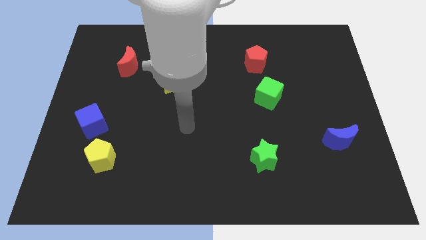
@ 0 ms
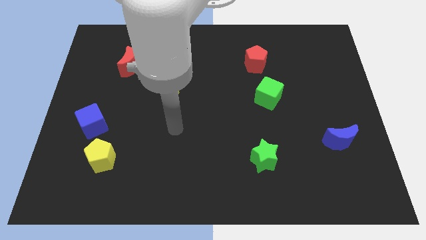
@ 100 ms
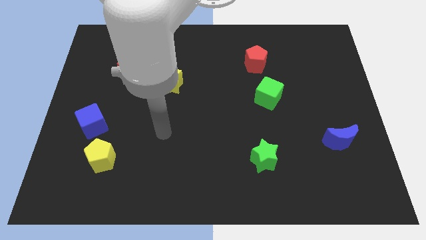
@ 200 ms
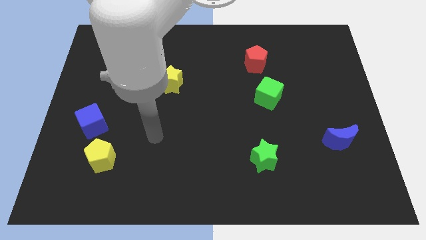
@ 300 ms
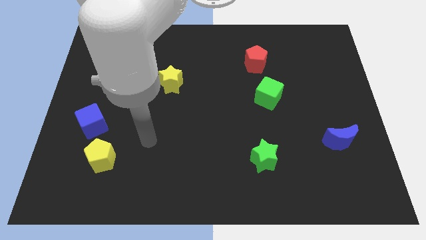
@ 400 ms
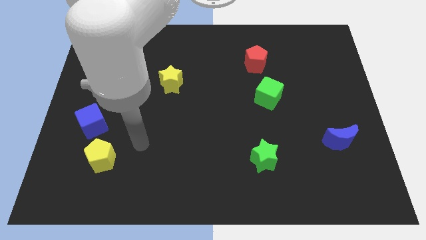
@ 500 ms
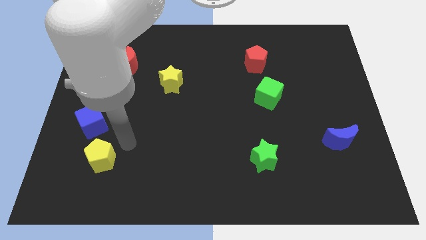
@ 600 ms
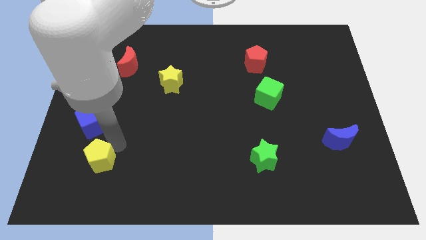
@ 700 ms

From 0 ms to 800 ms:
separate the blue cube from the yellow pentagon

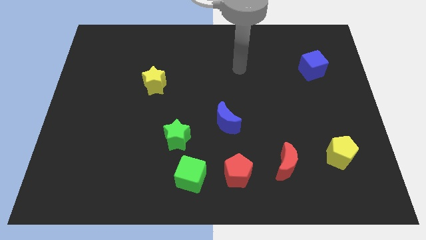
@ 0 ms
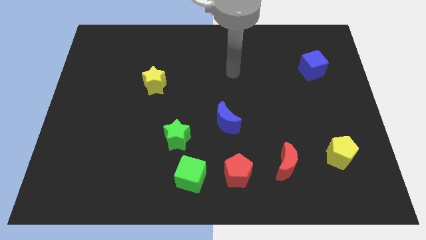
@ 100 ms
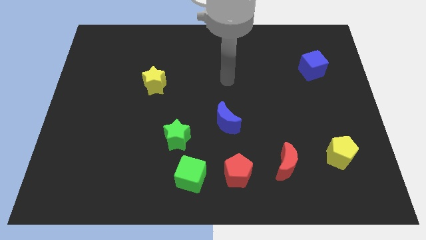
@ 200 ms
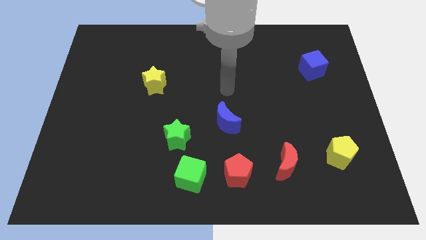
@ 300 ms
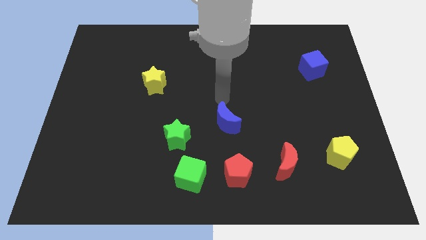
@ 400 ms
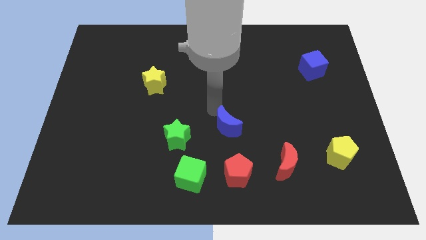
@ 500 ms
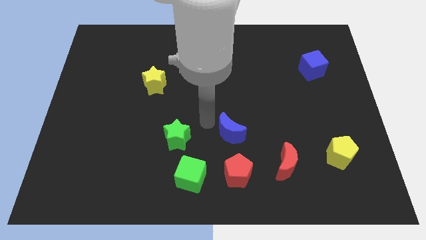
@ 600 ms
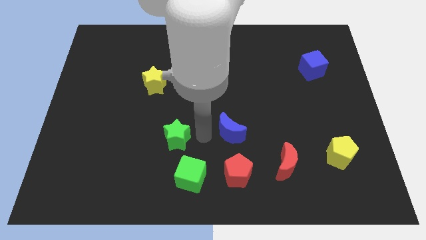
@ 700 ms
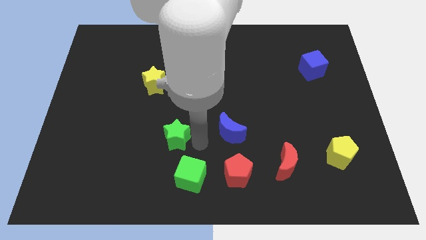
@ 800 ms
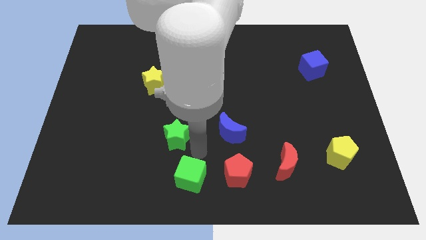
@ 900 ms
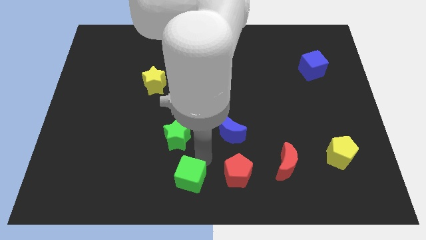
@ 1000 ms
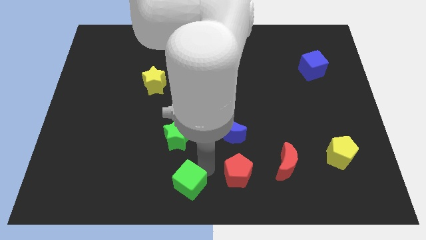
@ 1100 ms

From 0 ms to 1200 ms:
separate the red pentagon from the green cube

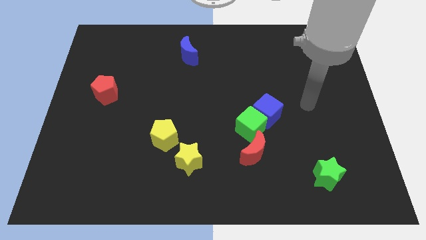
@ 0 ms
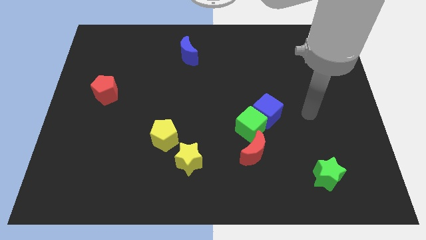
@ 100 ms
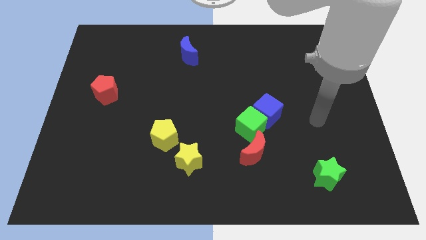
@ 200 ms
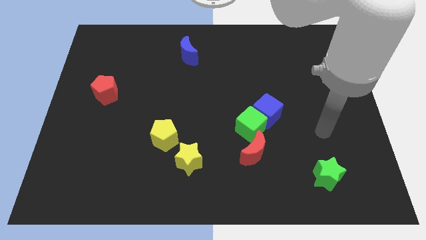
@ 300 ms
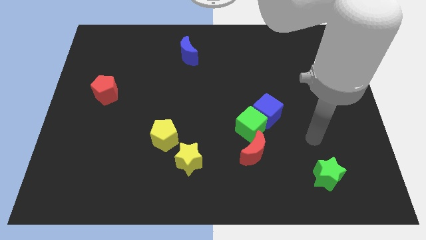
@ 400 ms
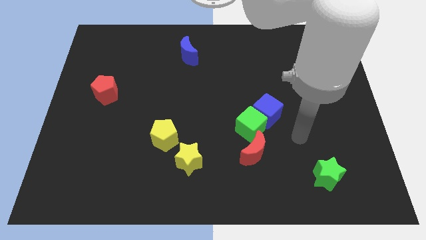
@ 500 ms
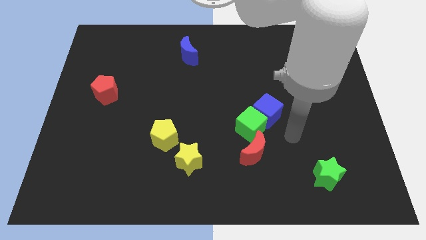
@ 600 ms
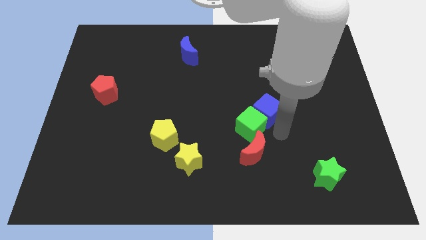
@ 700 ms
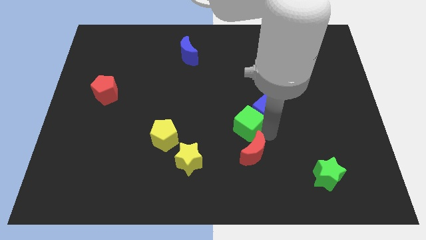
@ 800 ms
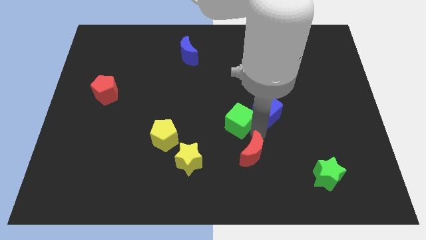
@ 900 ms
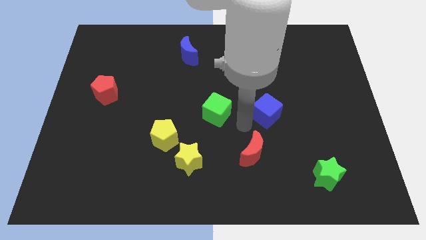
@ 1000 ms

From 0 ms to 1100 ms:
move the blue cube away from the green cube

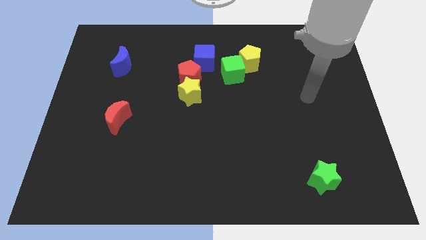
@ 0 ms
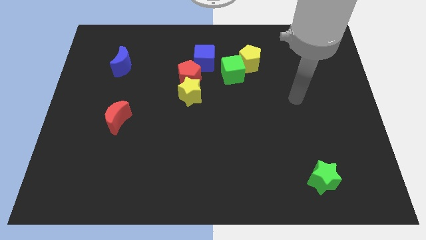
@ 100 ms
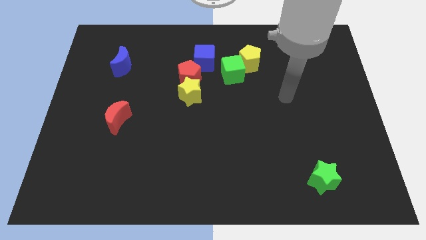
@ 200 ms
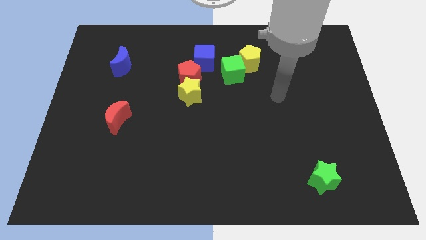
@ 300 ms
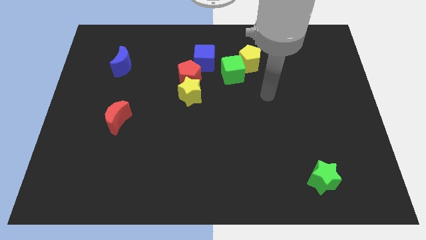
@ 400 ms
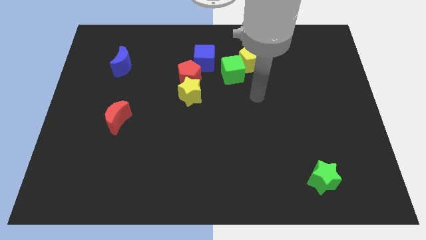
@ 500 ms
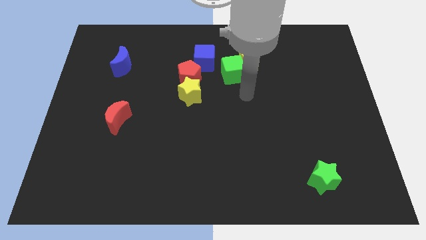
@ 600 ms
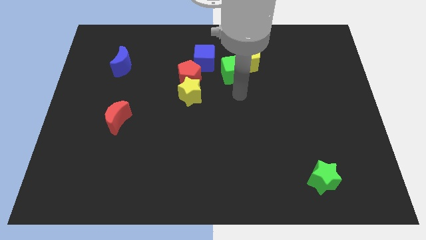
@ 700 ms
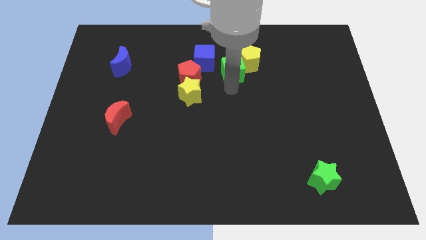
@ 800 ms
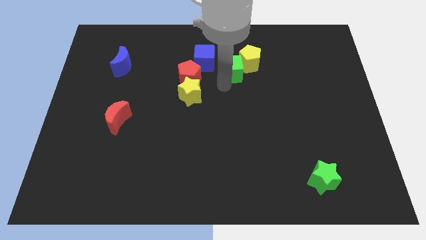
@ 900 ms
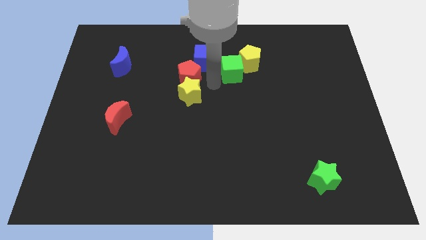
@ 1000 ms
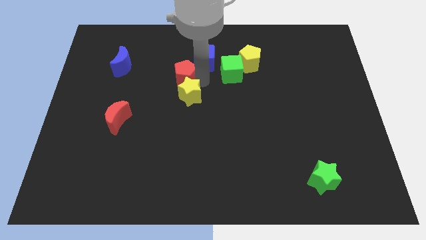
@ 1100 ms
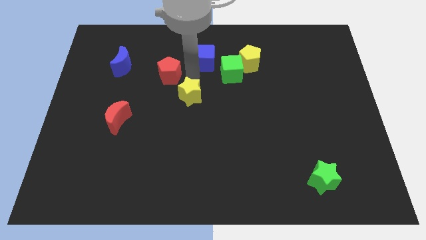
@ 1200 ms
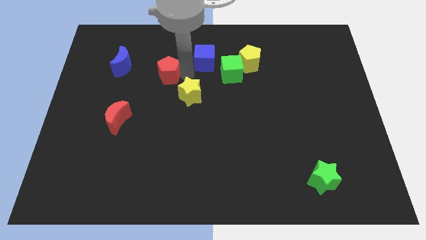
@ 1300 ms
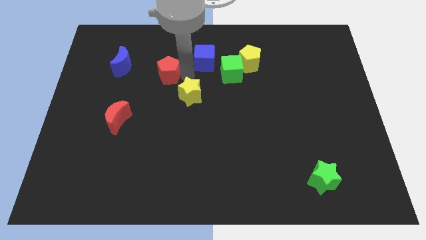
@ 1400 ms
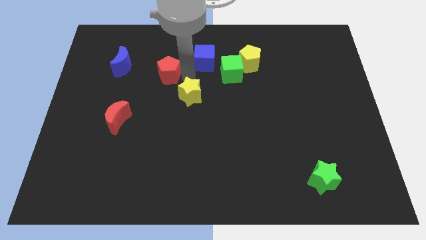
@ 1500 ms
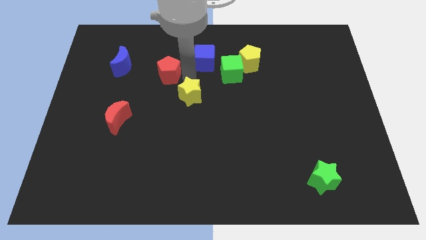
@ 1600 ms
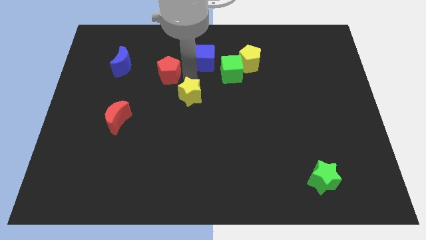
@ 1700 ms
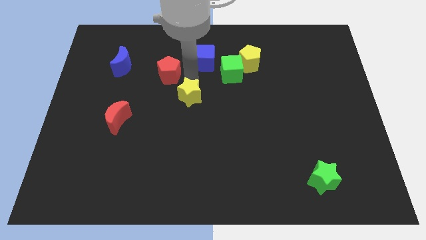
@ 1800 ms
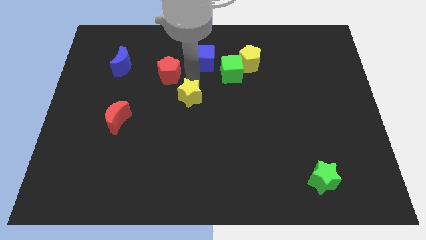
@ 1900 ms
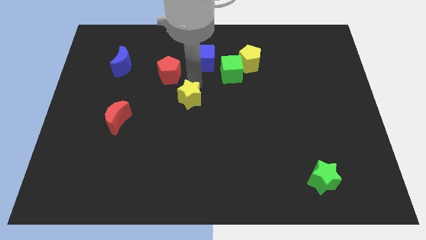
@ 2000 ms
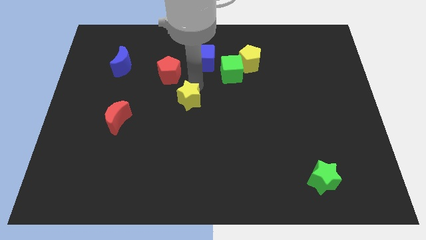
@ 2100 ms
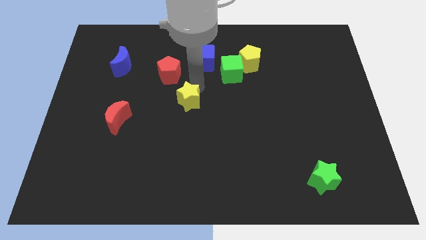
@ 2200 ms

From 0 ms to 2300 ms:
separate the yellow star from the red pentagon

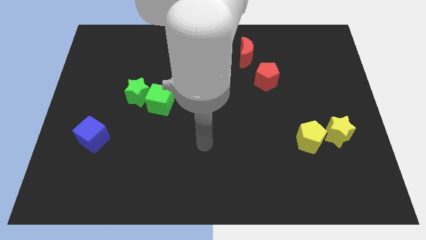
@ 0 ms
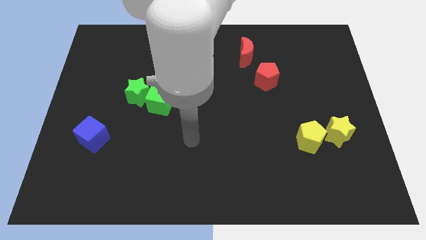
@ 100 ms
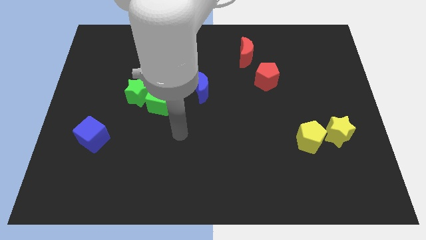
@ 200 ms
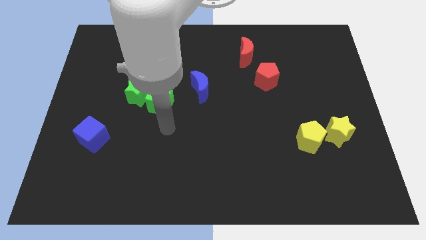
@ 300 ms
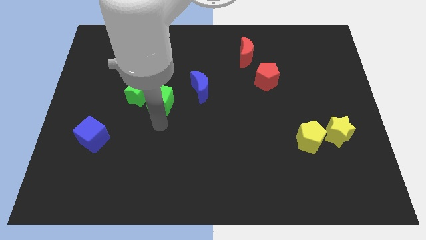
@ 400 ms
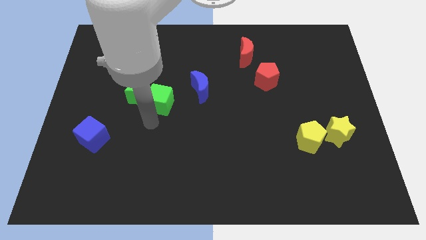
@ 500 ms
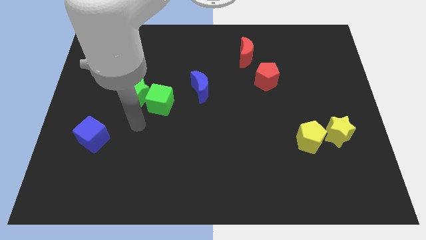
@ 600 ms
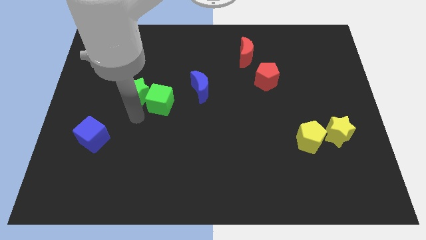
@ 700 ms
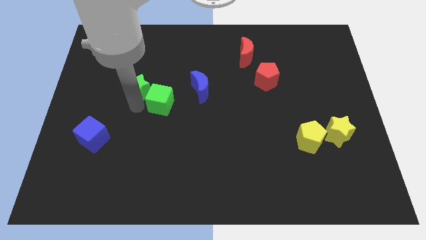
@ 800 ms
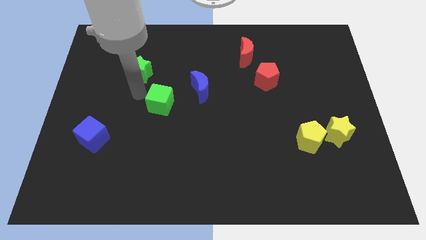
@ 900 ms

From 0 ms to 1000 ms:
separate the green cube from the green star

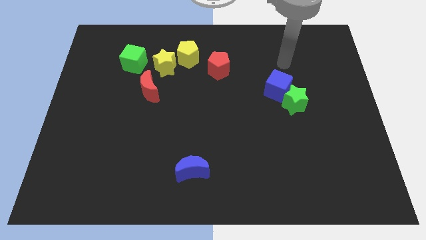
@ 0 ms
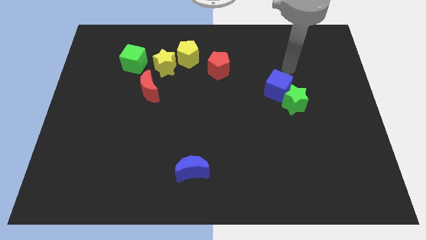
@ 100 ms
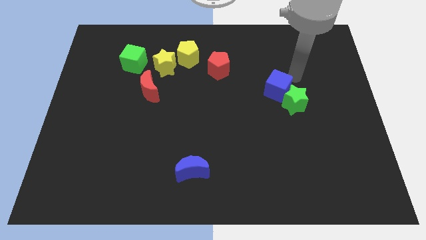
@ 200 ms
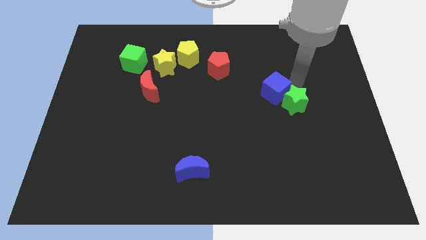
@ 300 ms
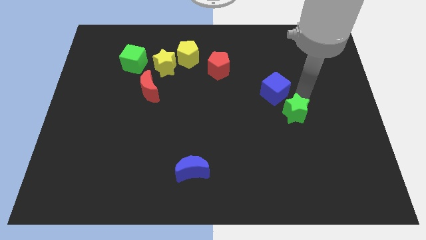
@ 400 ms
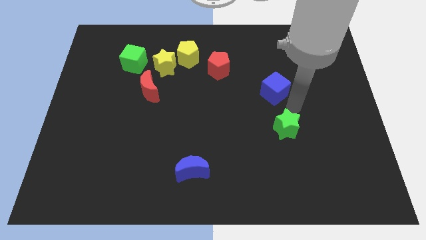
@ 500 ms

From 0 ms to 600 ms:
pull the blue cube apart from the green star

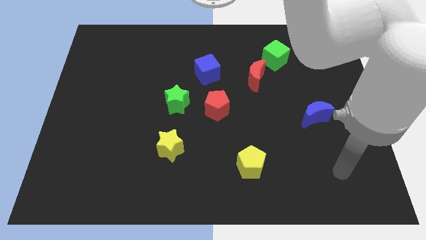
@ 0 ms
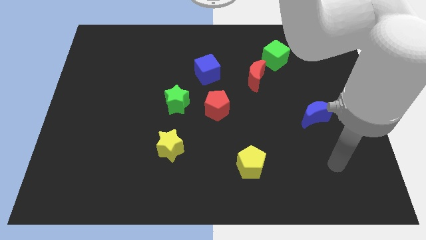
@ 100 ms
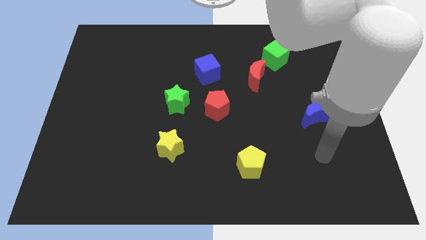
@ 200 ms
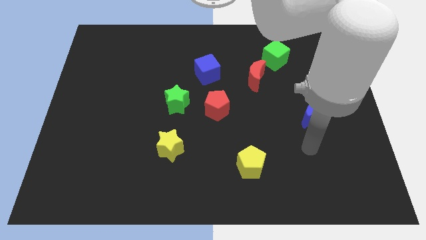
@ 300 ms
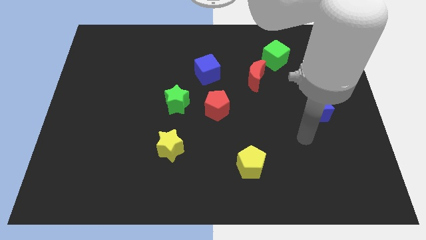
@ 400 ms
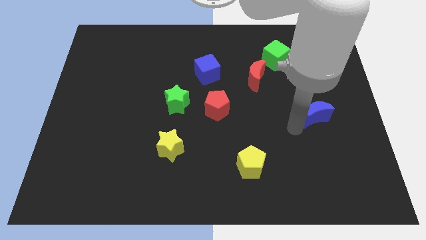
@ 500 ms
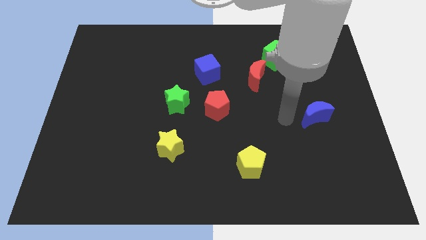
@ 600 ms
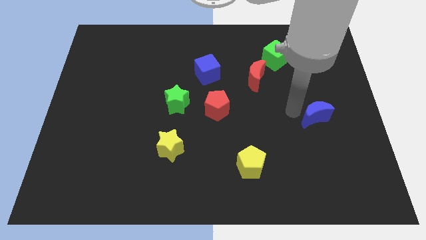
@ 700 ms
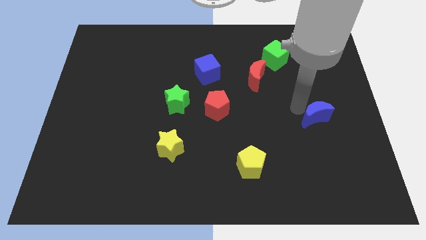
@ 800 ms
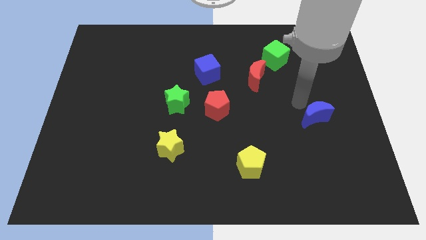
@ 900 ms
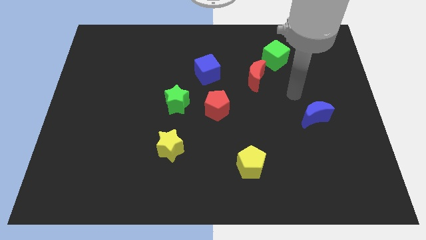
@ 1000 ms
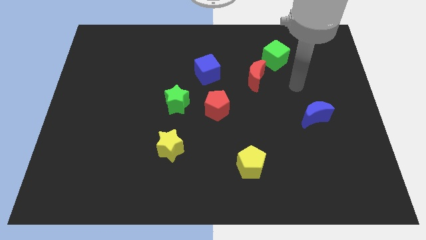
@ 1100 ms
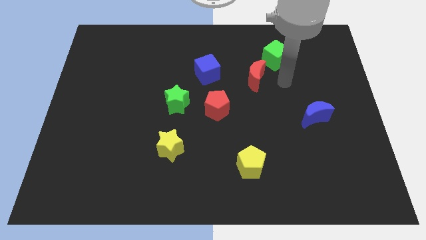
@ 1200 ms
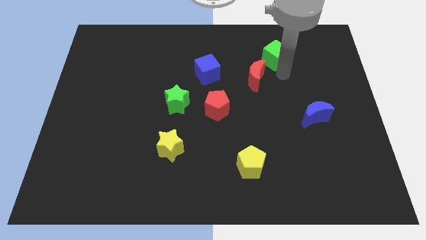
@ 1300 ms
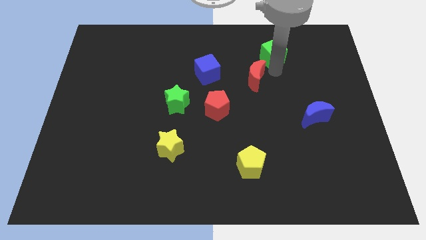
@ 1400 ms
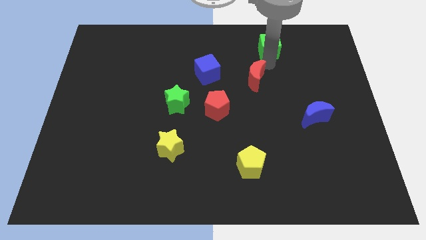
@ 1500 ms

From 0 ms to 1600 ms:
separate the red moon from the green cube

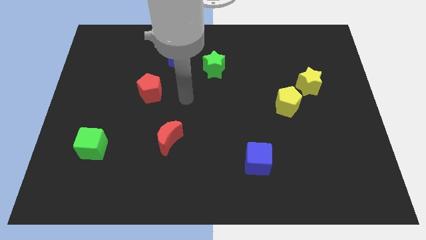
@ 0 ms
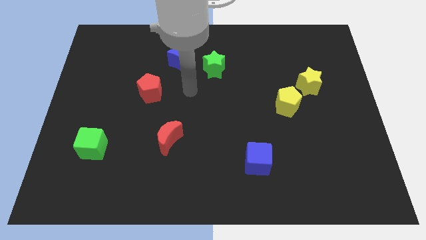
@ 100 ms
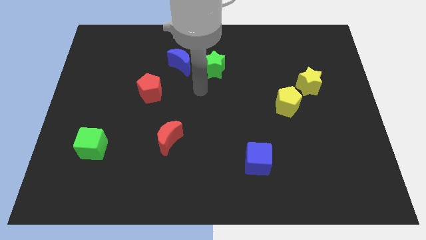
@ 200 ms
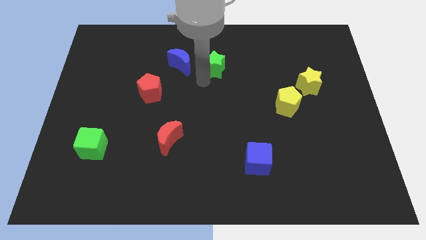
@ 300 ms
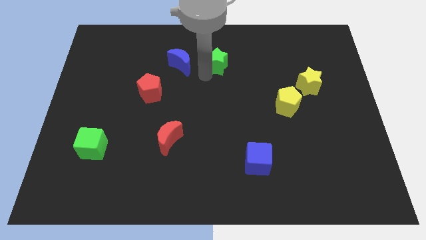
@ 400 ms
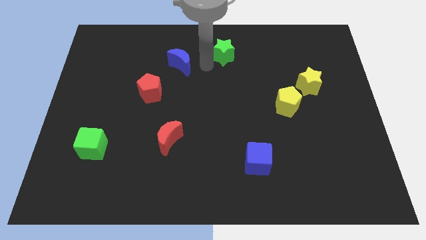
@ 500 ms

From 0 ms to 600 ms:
separate the blue moon from the green star

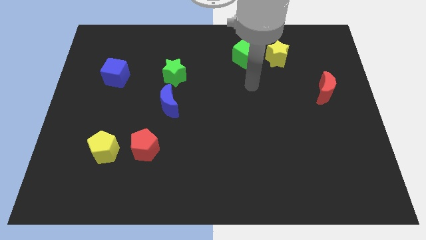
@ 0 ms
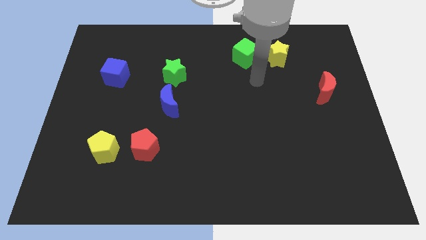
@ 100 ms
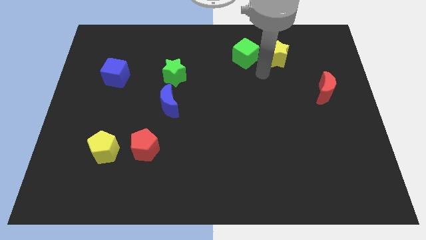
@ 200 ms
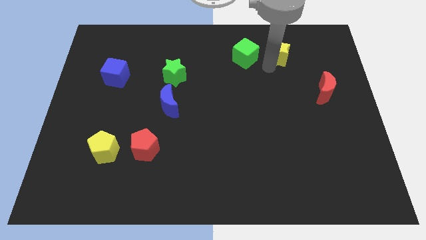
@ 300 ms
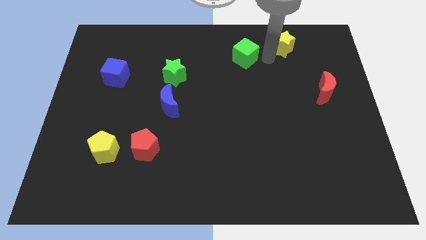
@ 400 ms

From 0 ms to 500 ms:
pull the green cube apart from the yellow star
